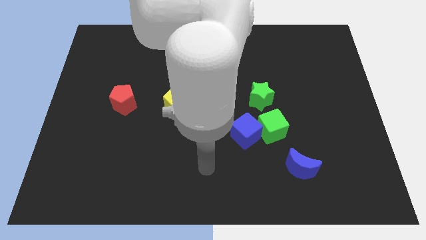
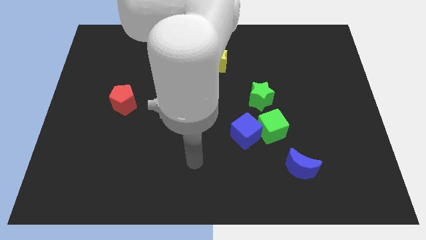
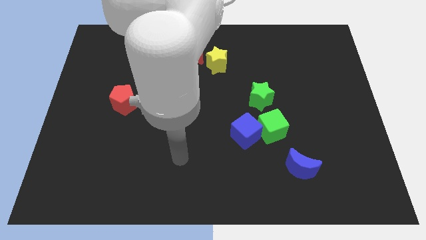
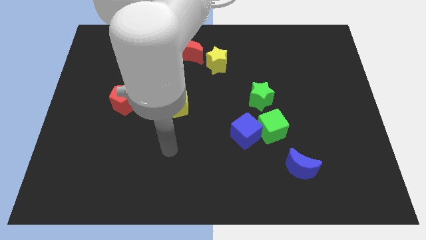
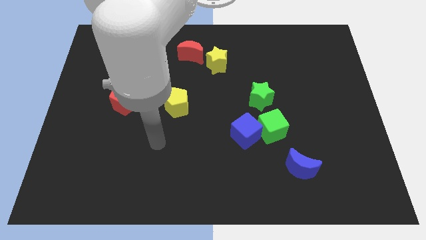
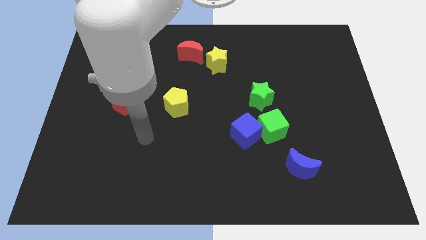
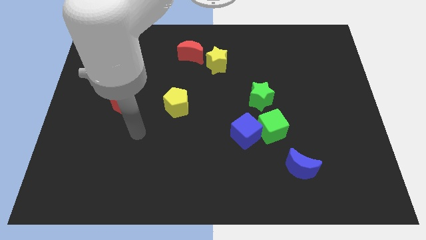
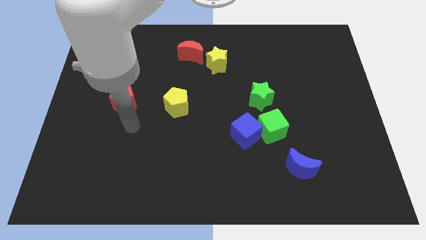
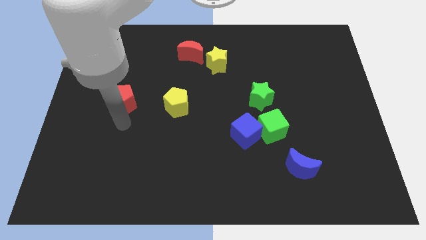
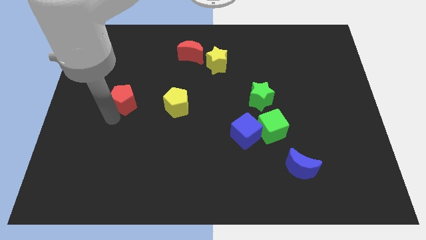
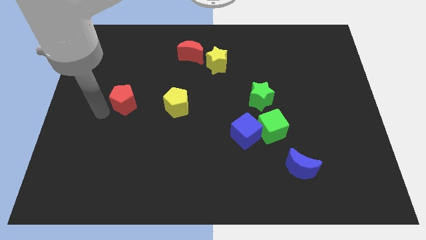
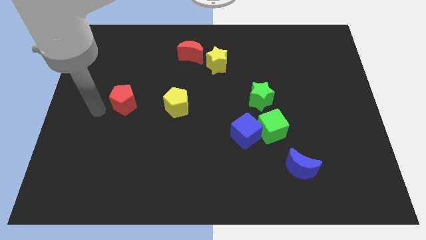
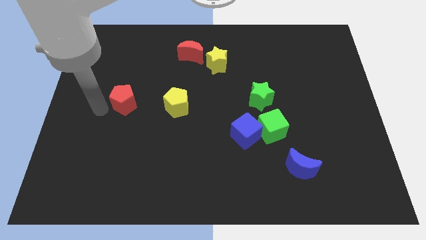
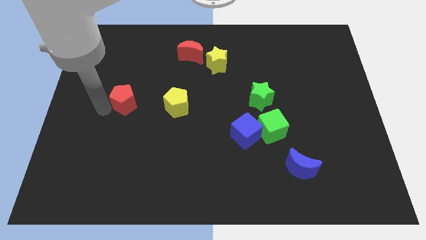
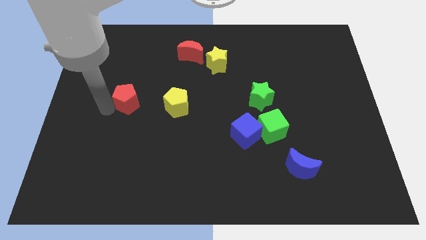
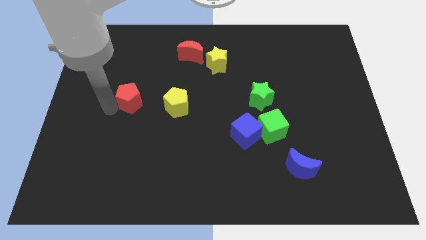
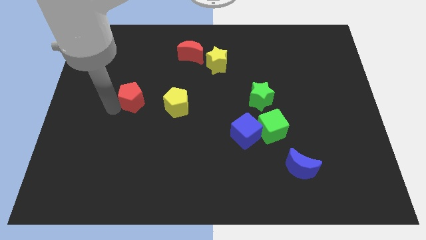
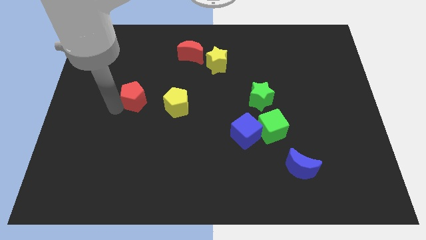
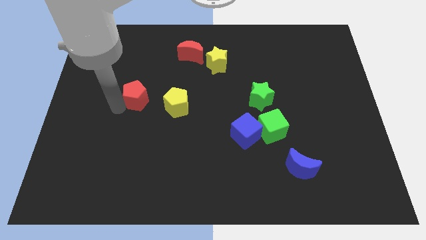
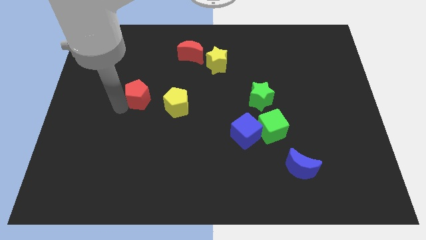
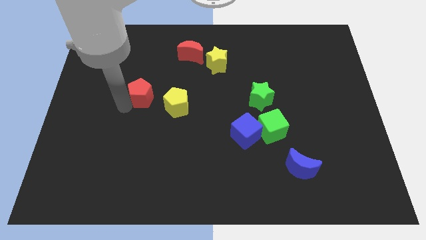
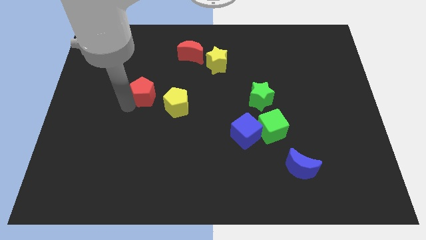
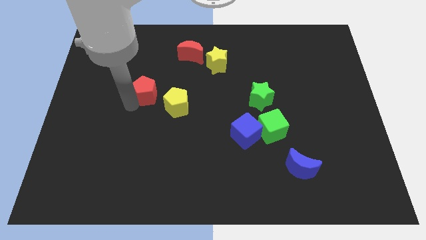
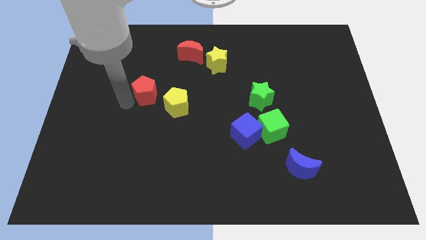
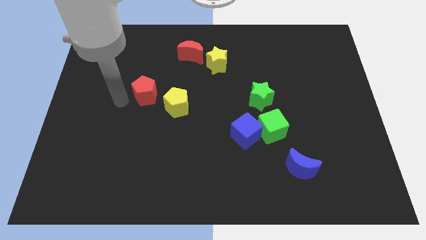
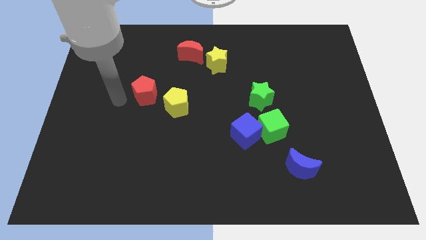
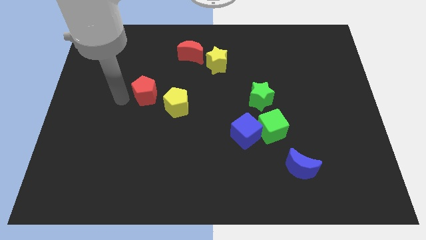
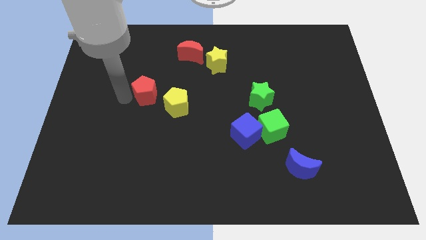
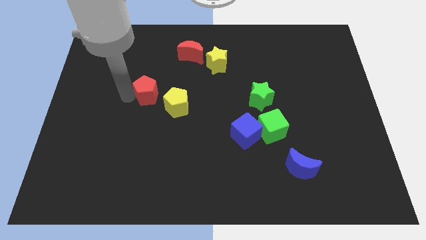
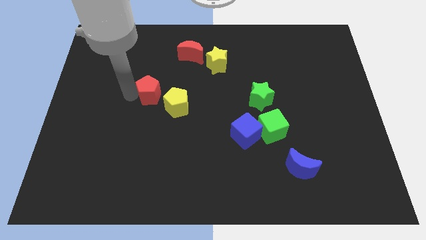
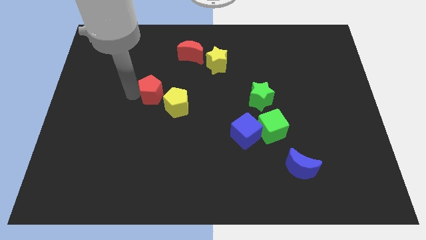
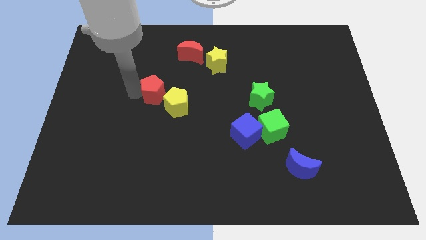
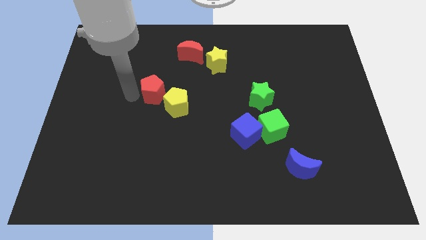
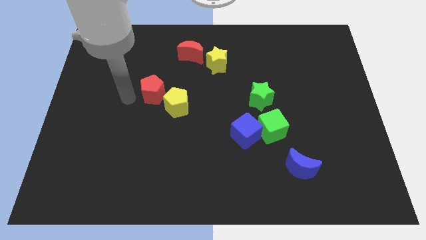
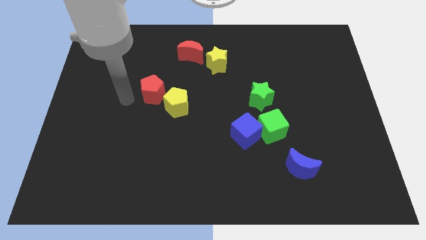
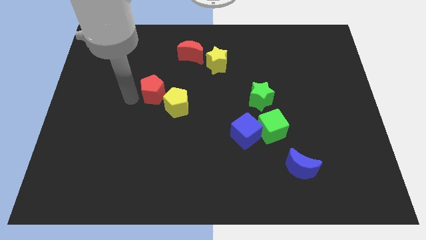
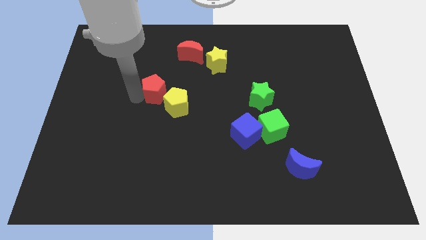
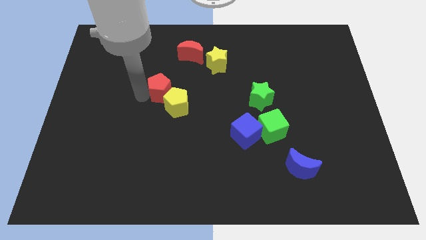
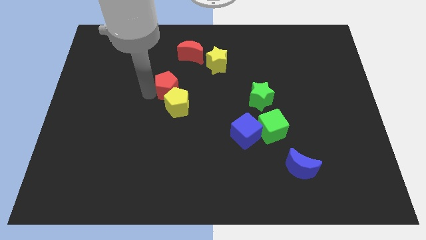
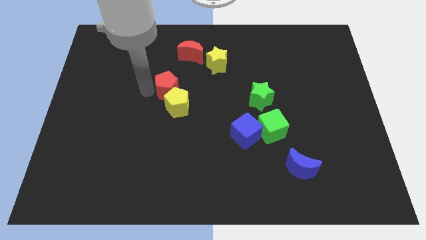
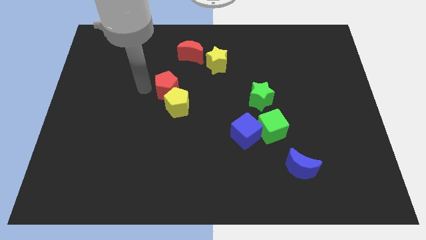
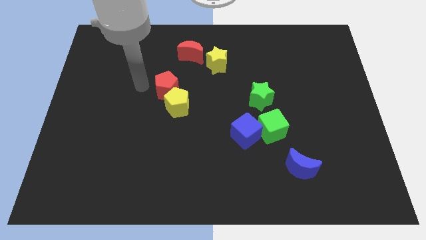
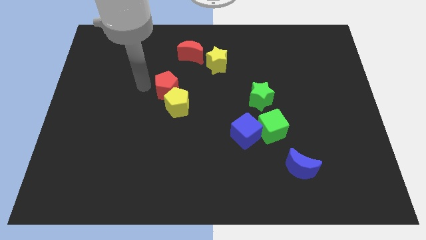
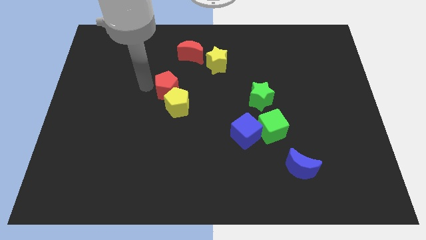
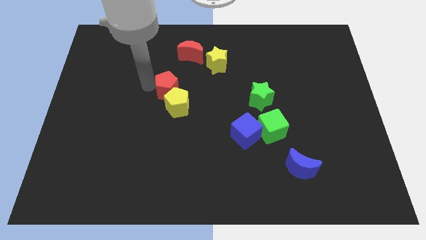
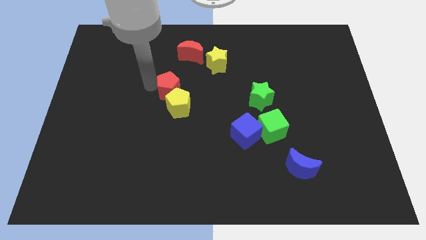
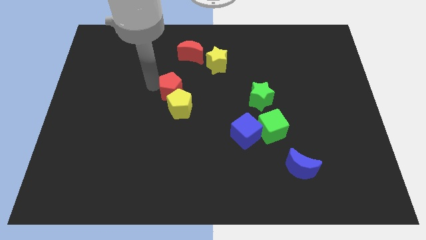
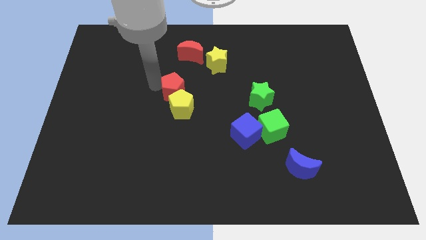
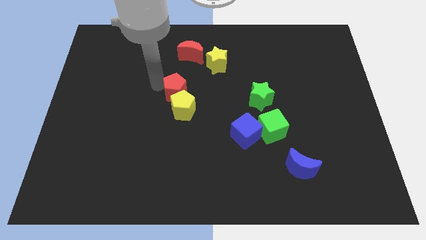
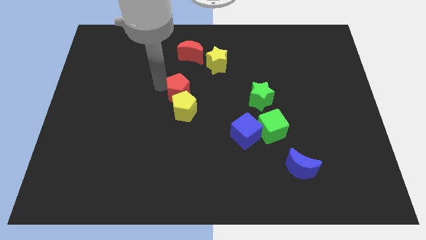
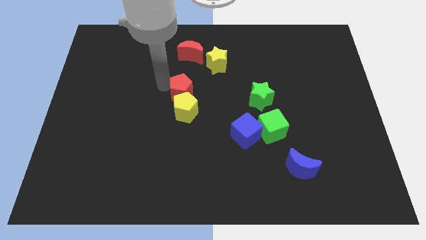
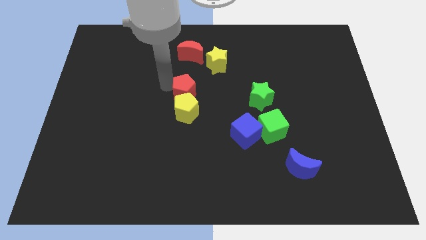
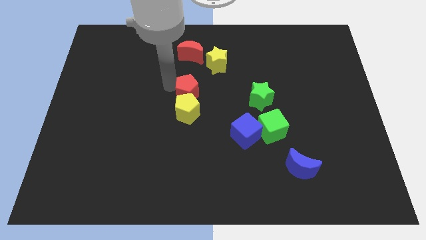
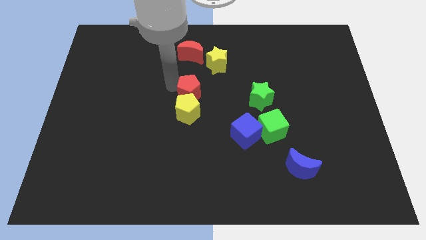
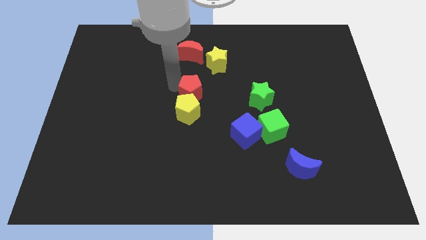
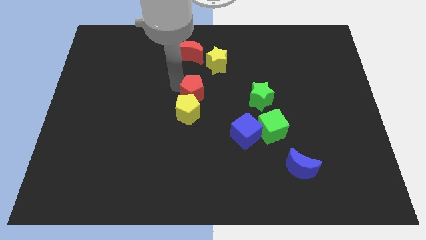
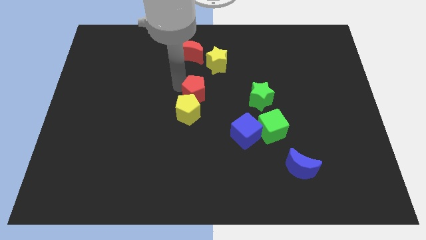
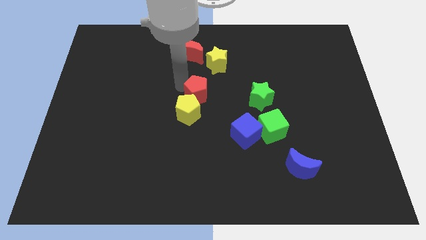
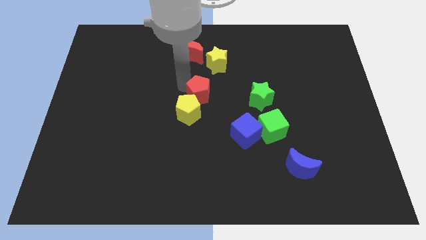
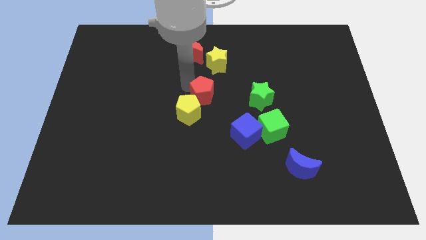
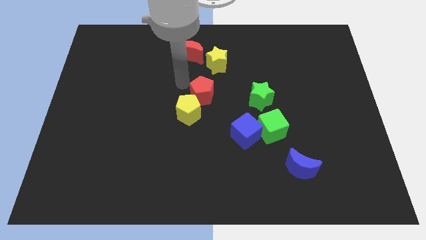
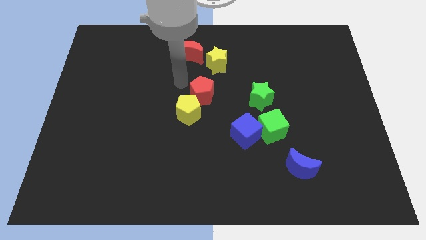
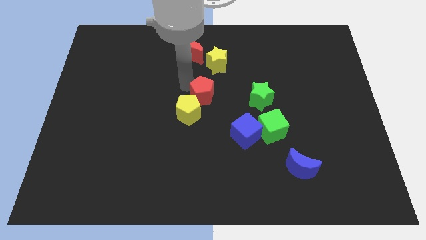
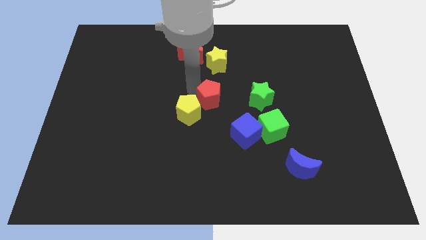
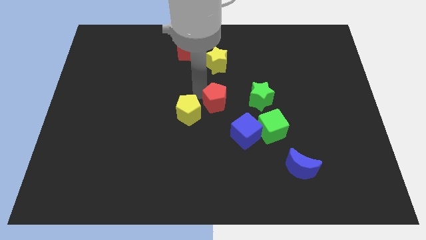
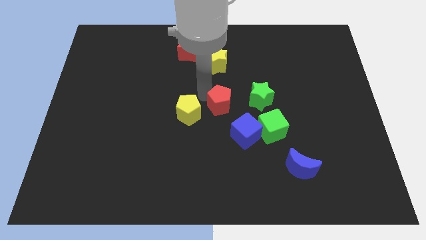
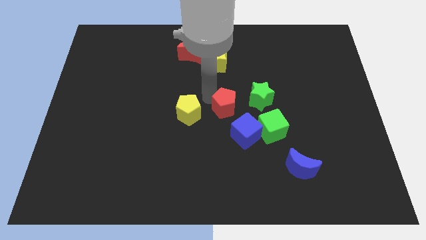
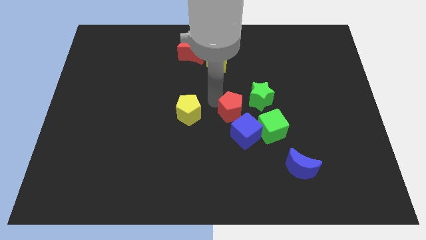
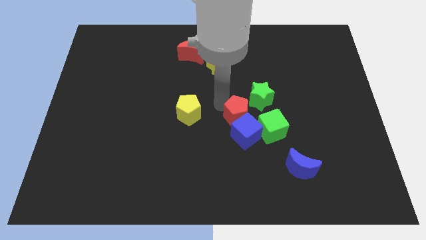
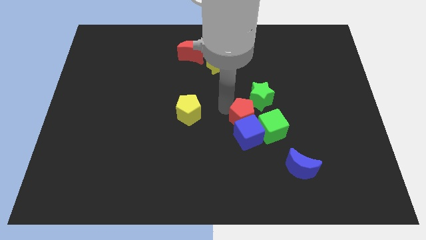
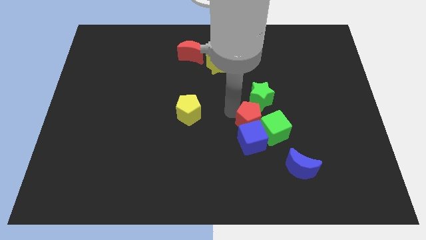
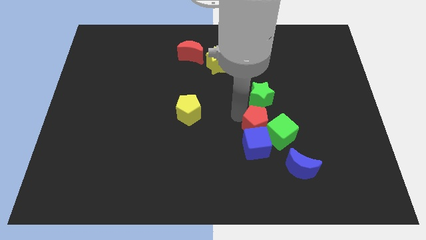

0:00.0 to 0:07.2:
push the red pentagon to the green cube
